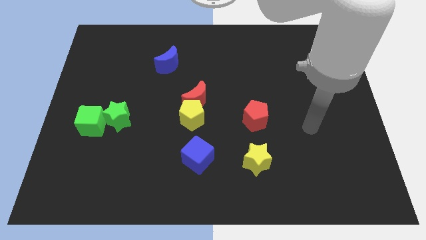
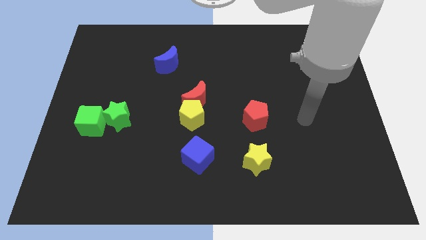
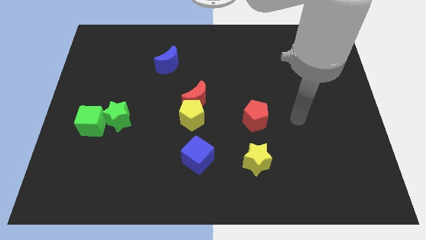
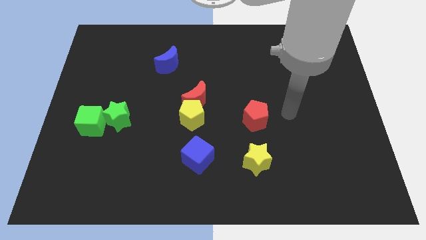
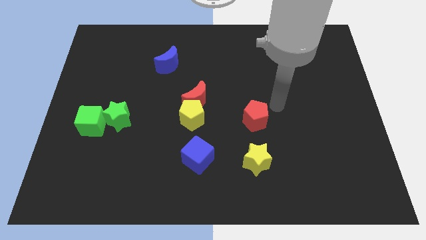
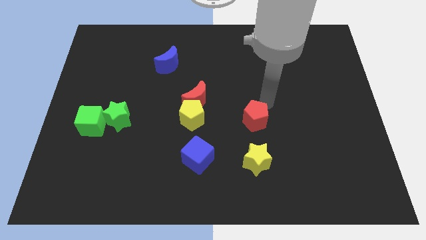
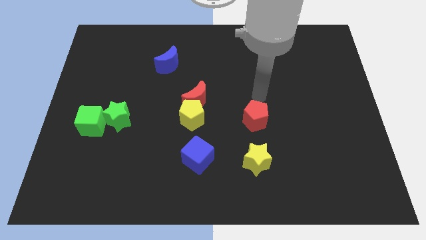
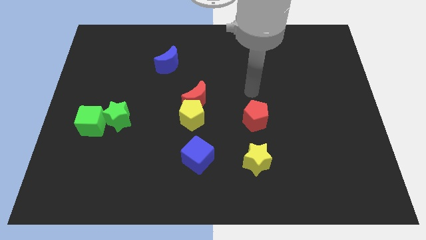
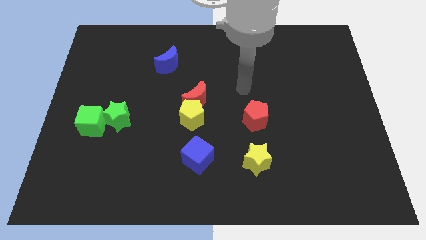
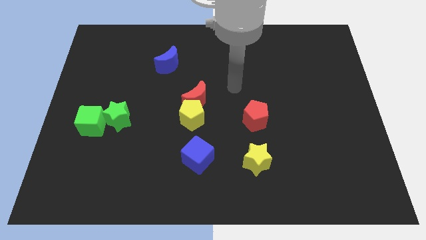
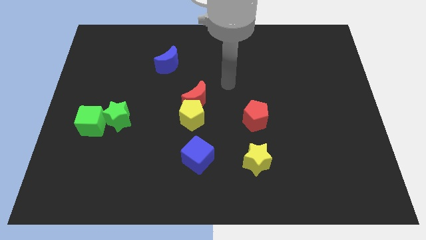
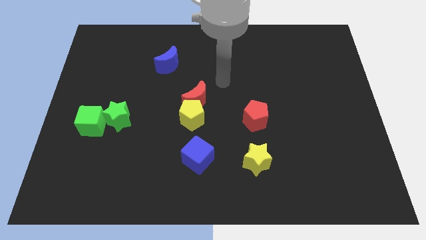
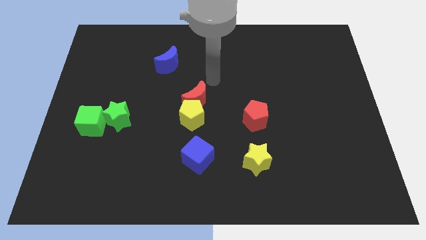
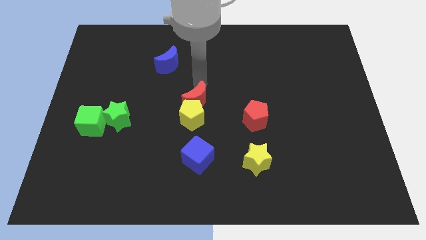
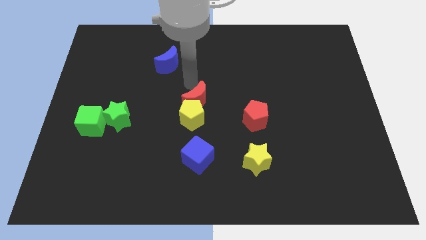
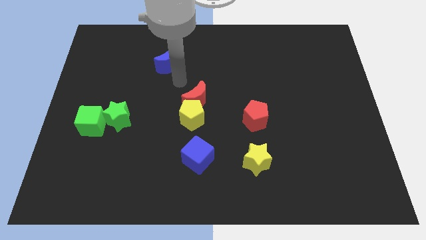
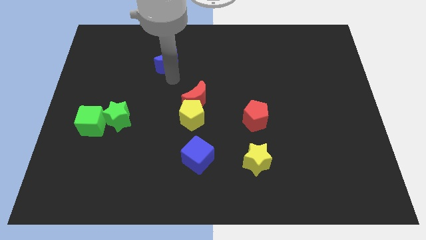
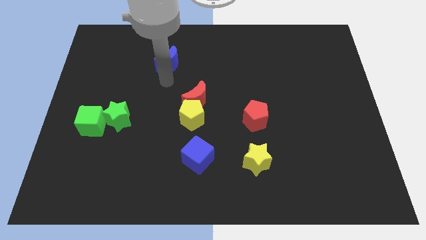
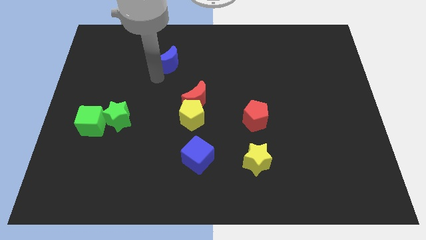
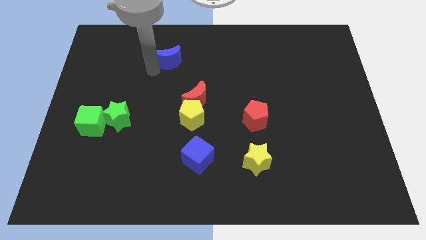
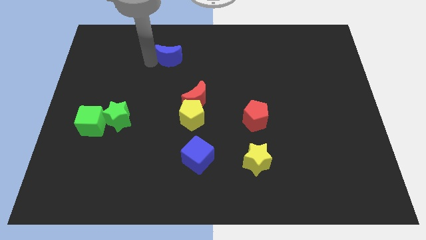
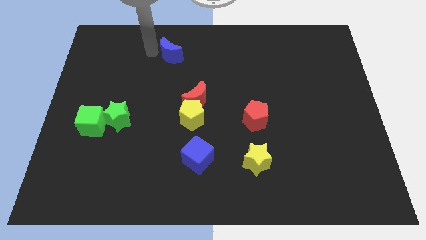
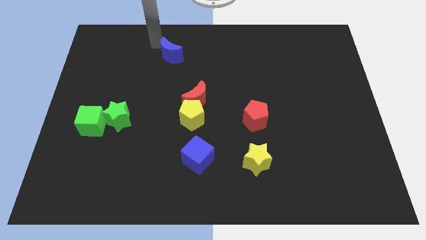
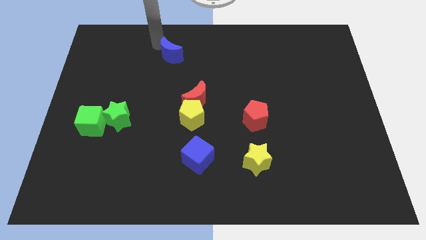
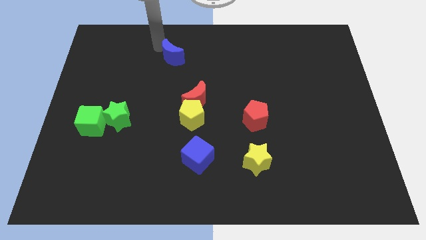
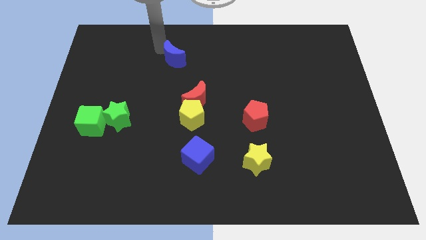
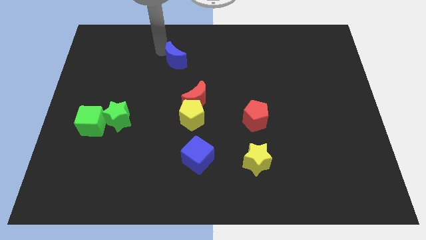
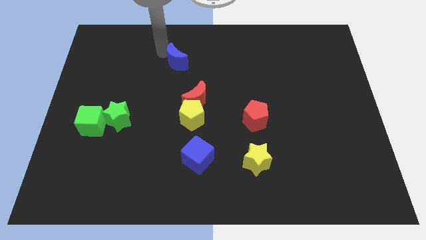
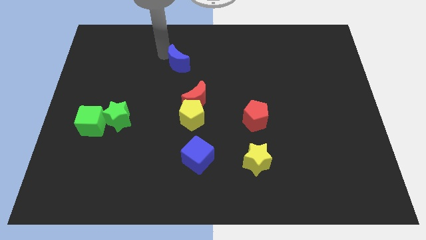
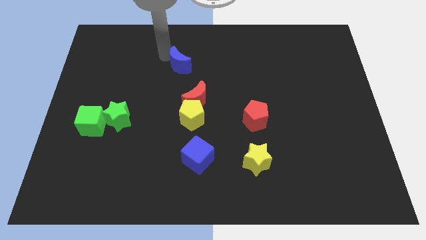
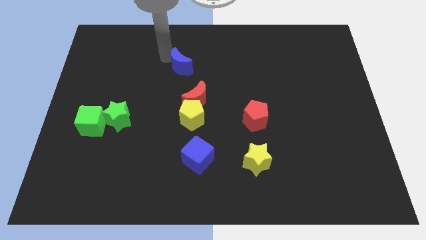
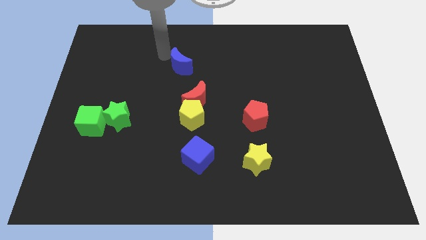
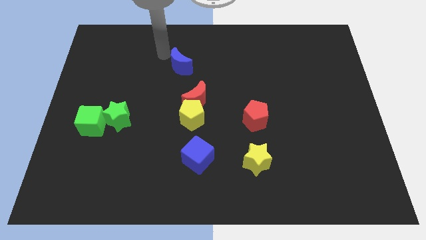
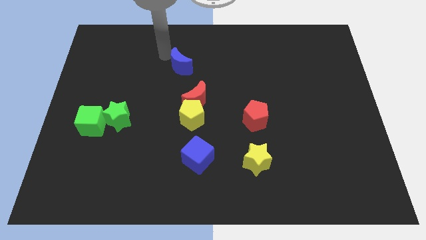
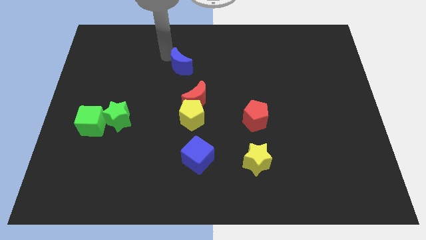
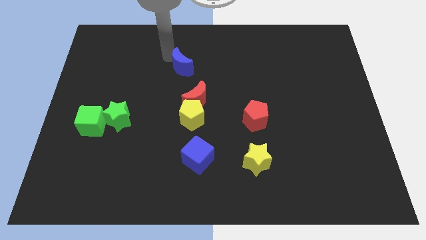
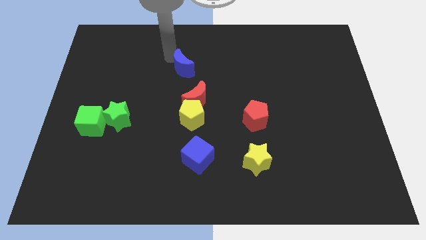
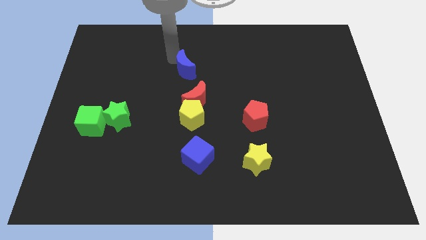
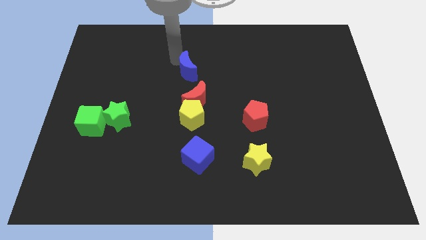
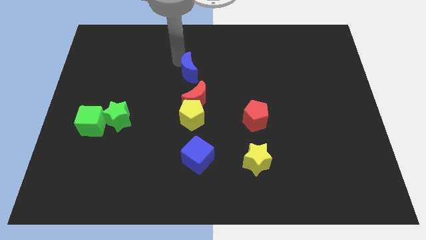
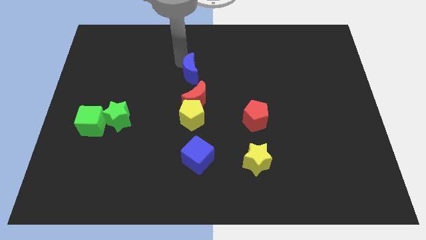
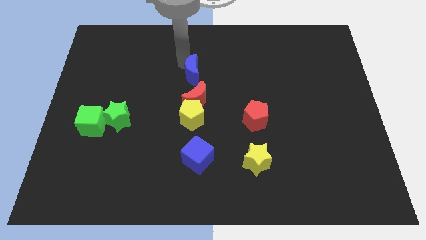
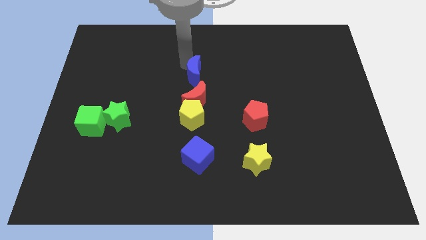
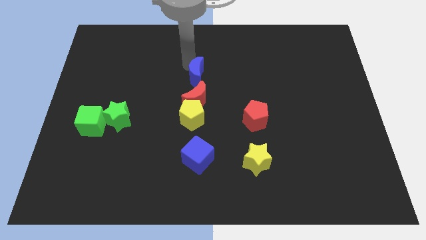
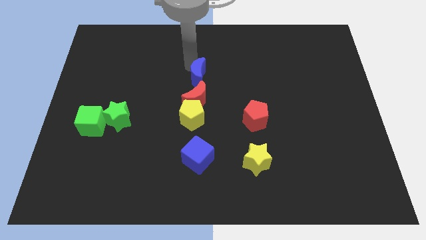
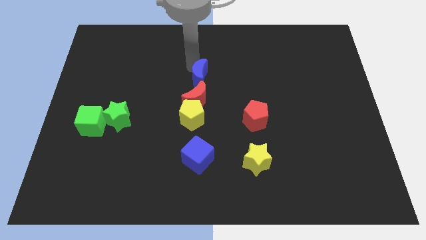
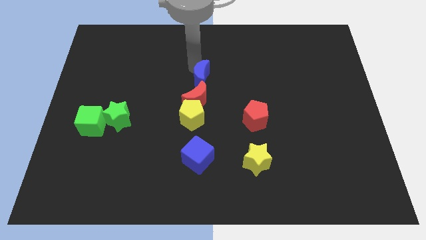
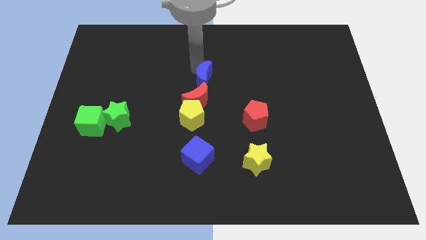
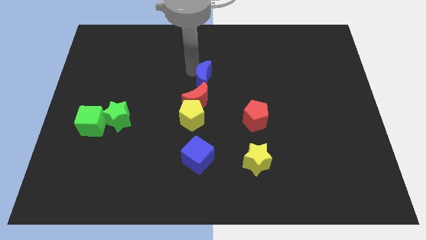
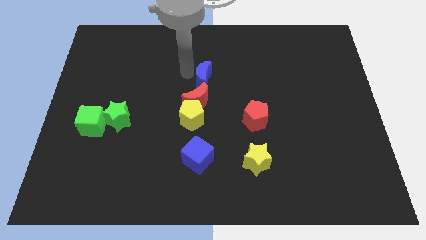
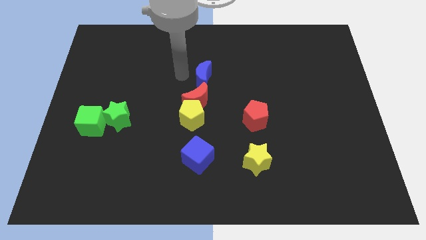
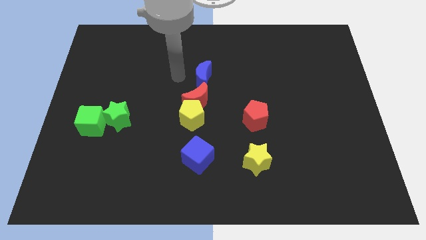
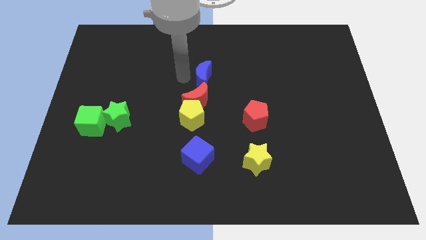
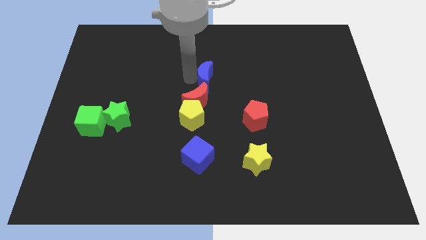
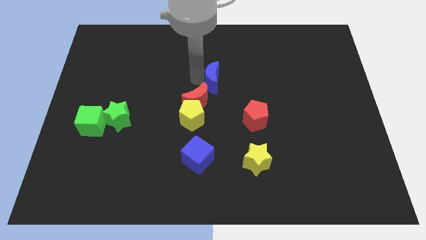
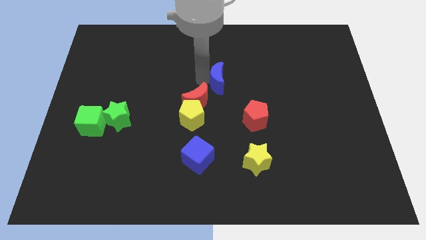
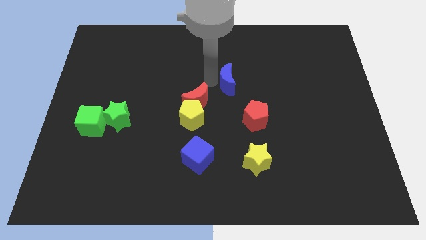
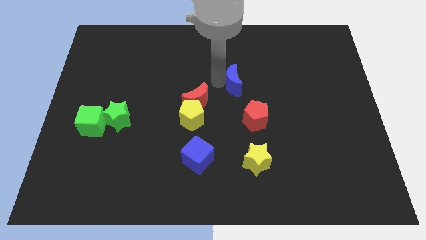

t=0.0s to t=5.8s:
slide the blue moon above the red pentagon

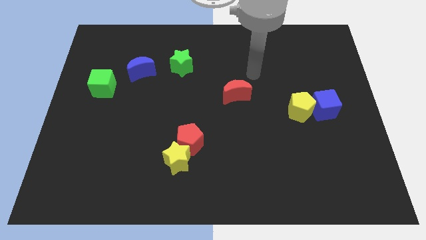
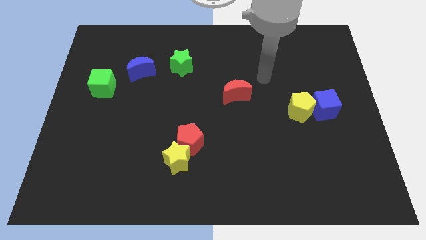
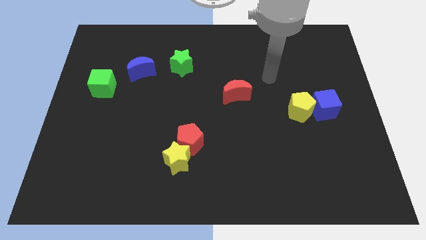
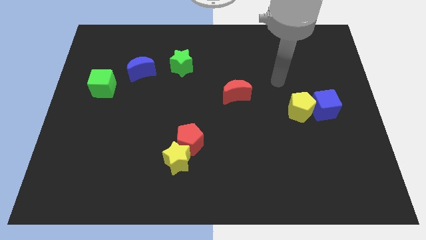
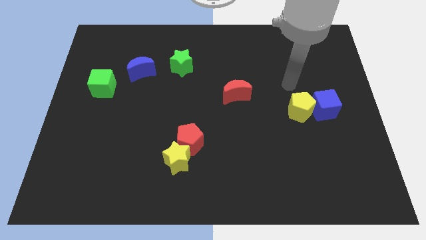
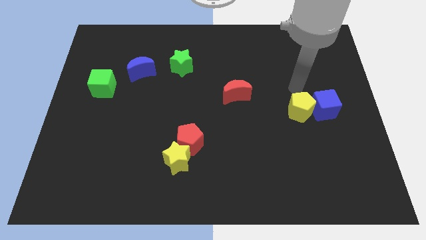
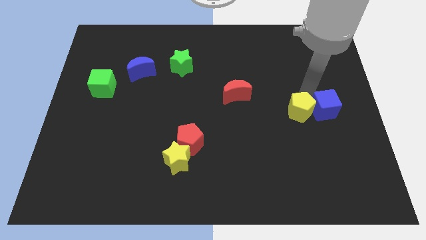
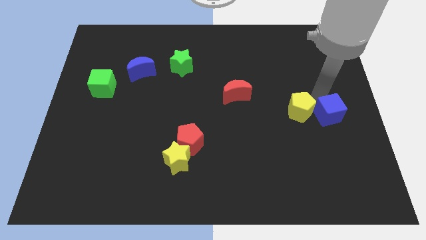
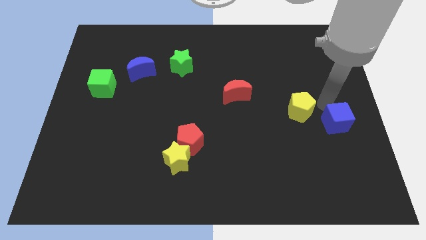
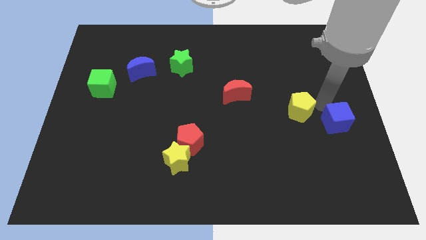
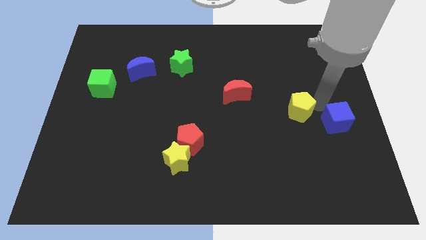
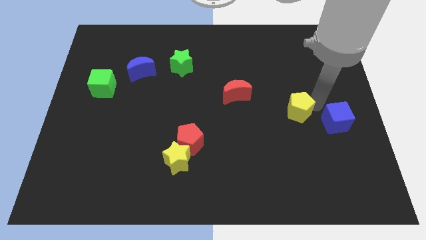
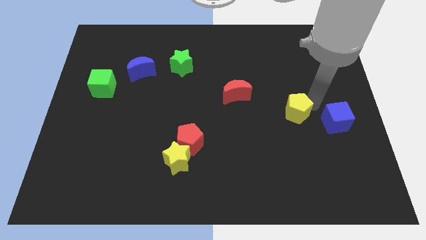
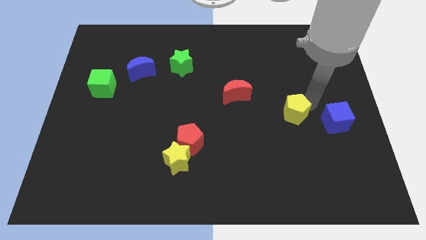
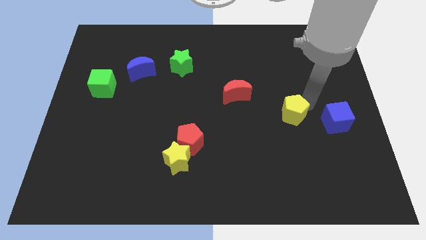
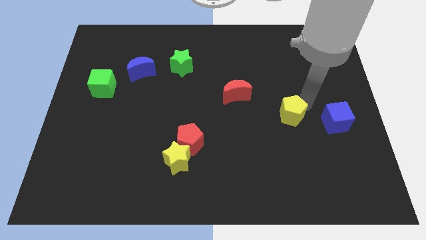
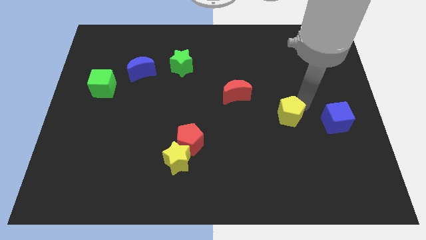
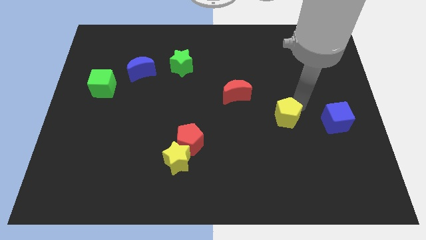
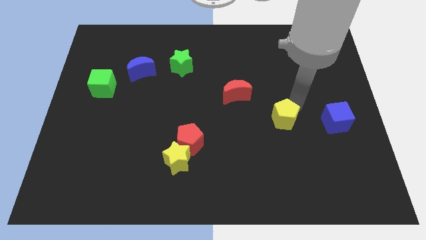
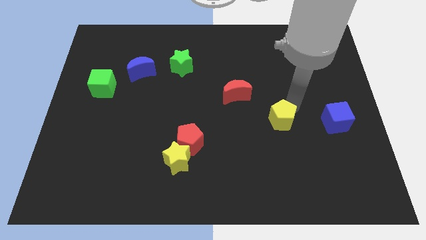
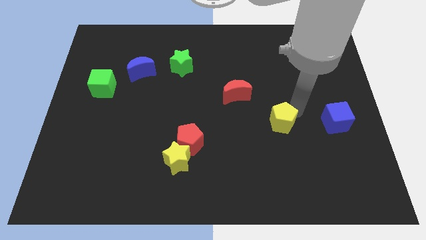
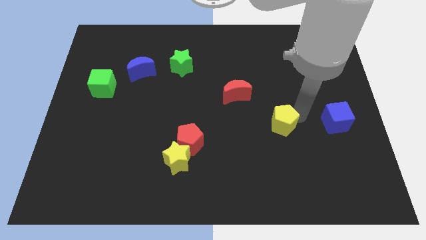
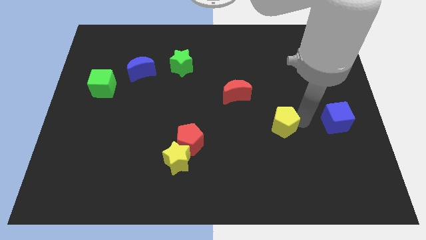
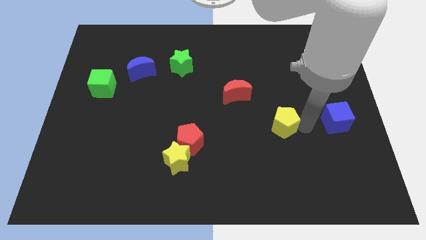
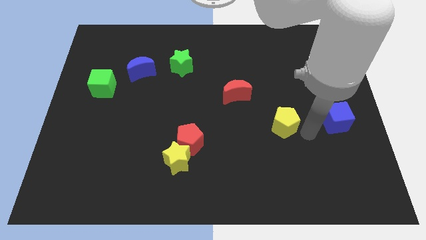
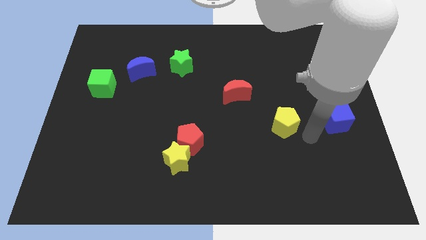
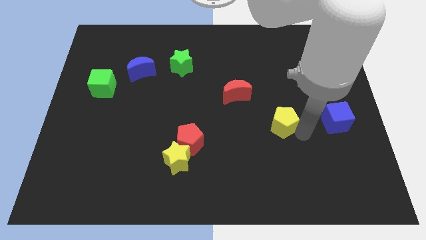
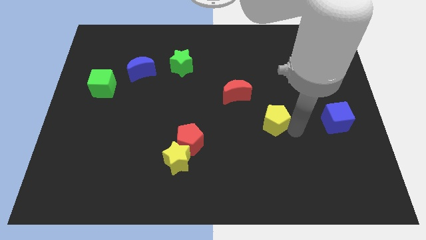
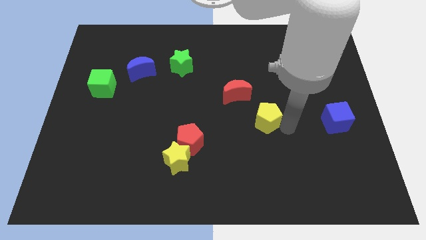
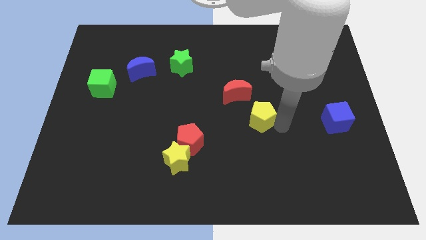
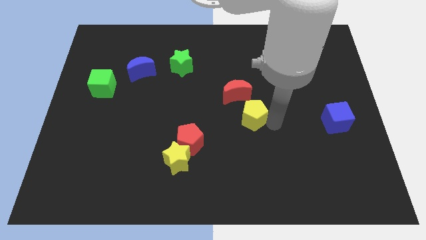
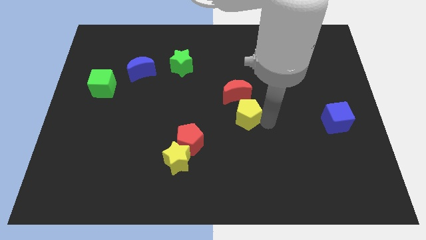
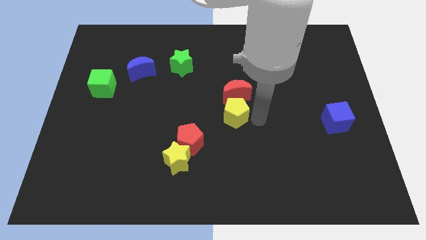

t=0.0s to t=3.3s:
slide the yellow pentagon diagonally down and to the left of the red moon
